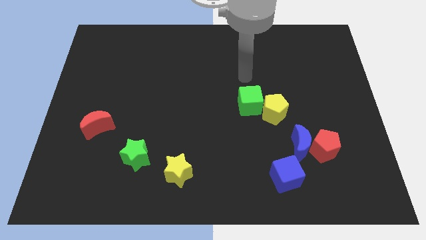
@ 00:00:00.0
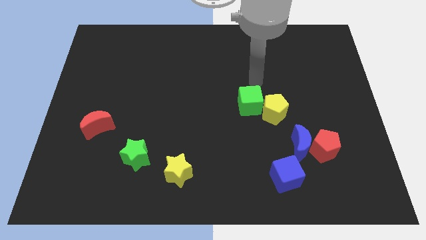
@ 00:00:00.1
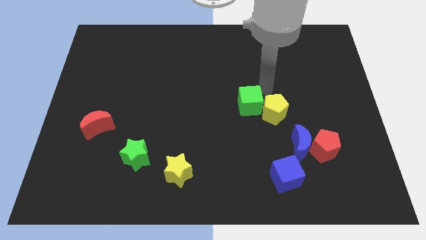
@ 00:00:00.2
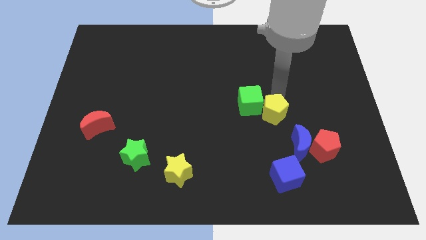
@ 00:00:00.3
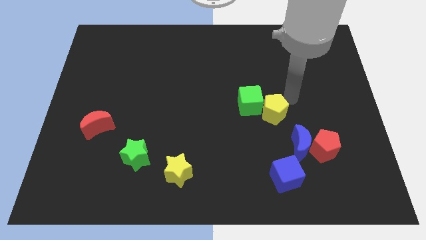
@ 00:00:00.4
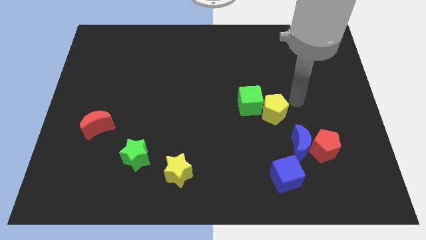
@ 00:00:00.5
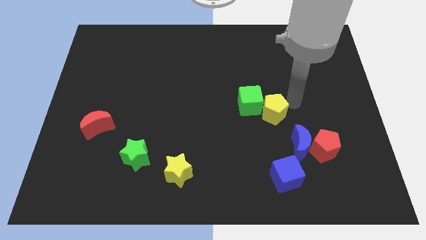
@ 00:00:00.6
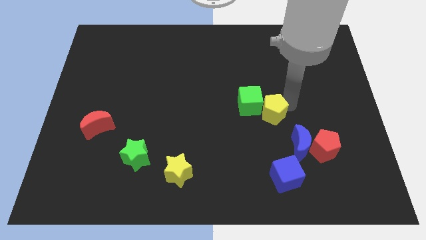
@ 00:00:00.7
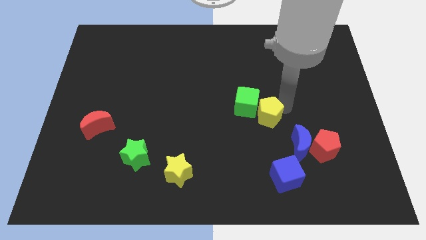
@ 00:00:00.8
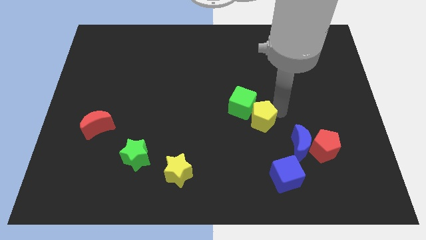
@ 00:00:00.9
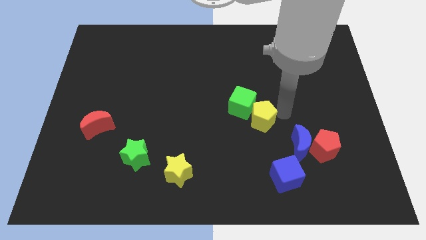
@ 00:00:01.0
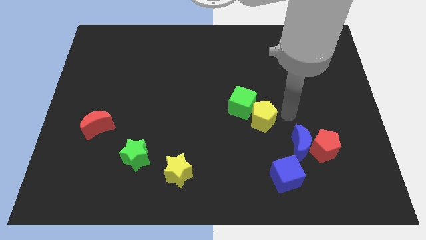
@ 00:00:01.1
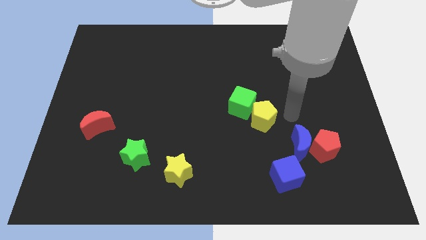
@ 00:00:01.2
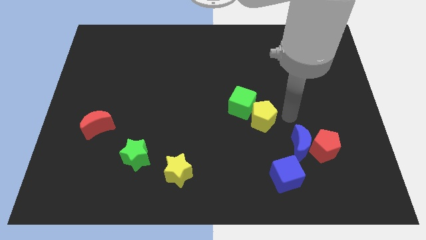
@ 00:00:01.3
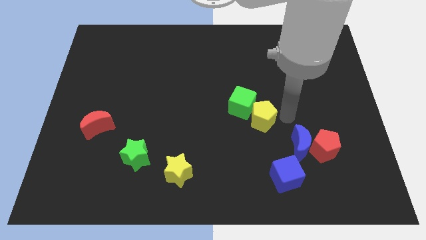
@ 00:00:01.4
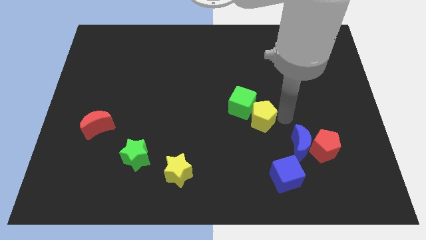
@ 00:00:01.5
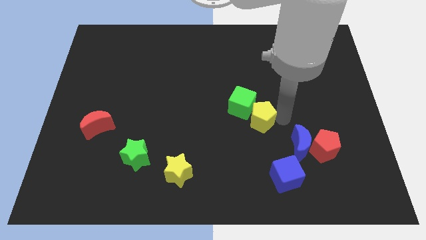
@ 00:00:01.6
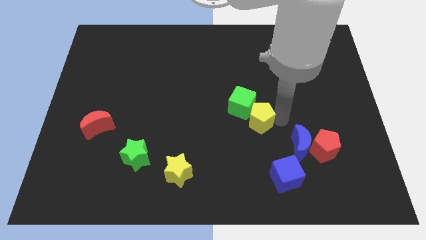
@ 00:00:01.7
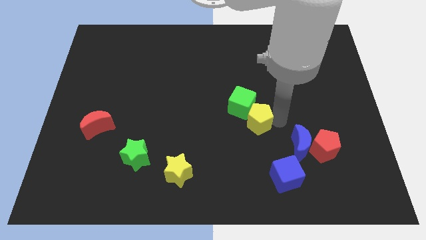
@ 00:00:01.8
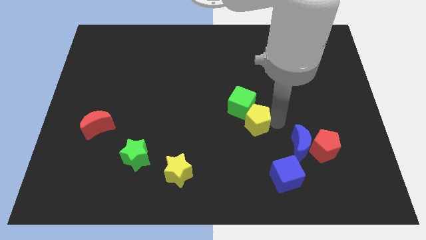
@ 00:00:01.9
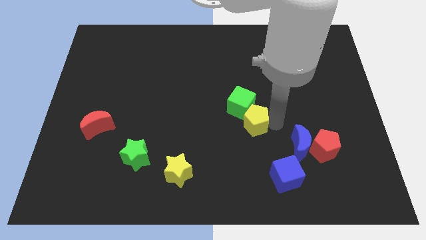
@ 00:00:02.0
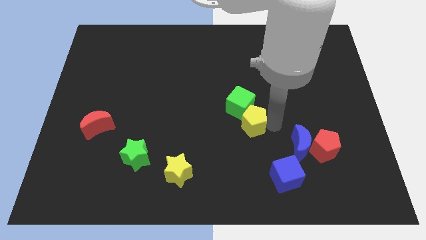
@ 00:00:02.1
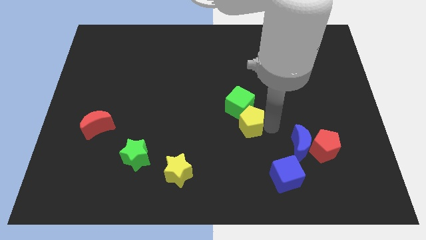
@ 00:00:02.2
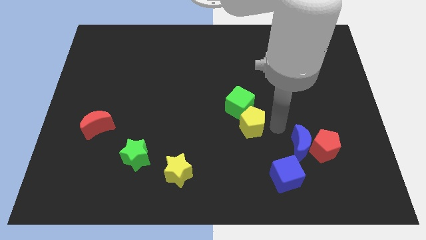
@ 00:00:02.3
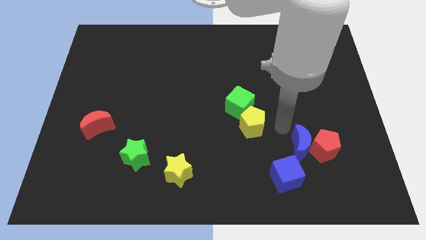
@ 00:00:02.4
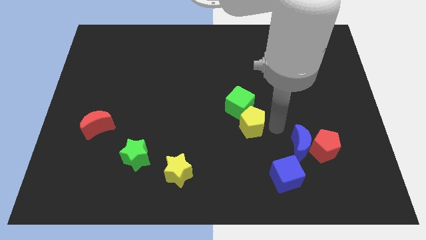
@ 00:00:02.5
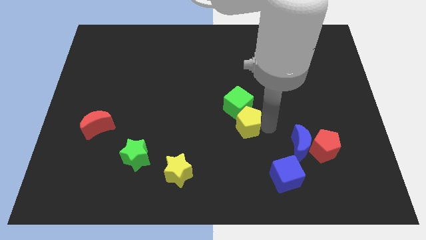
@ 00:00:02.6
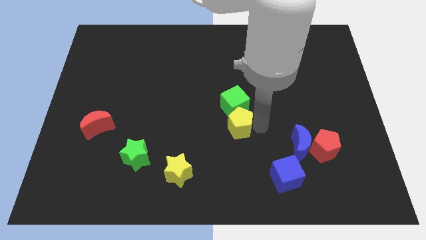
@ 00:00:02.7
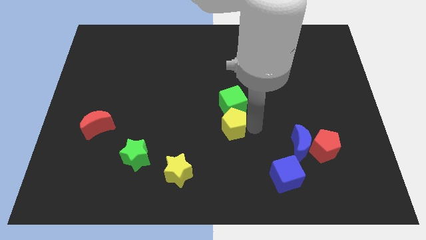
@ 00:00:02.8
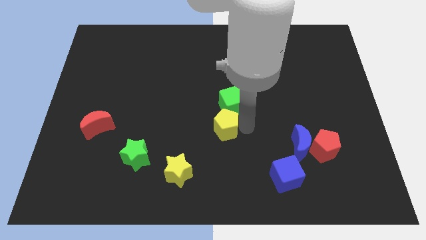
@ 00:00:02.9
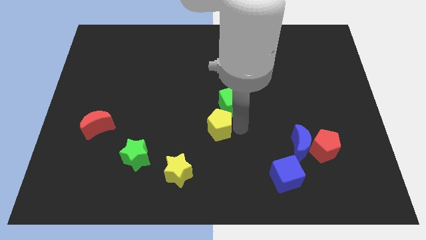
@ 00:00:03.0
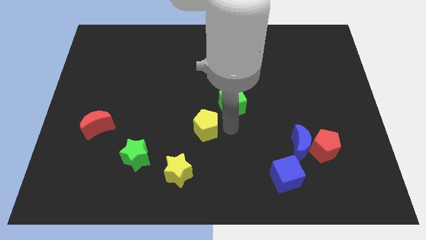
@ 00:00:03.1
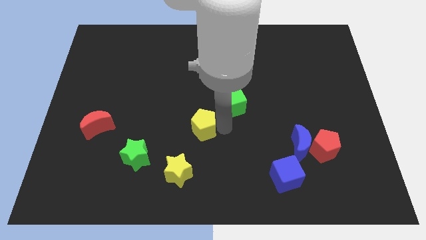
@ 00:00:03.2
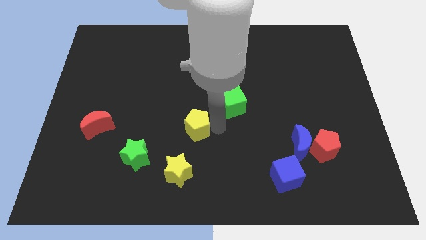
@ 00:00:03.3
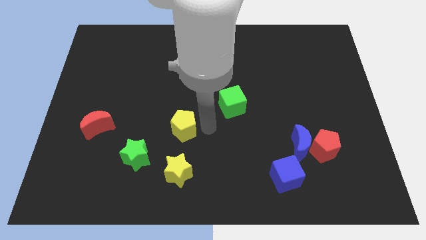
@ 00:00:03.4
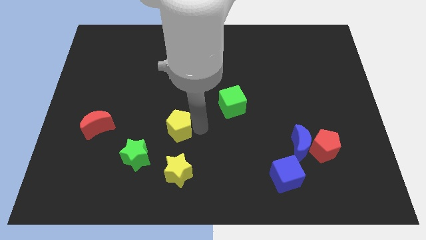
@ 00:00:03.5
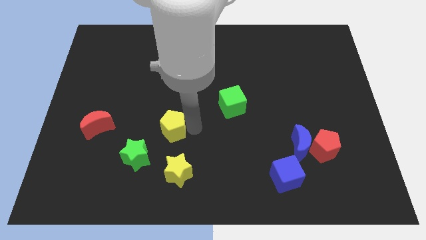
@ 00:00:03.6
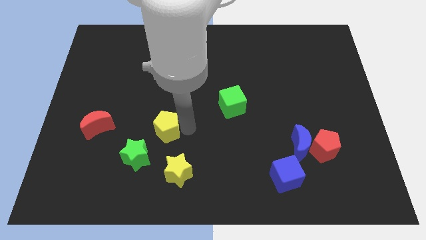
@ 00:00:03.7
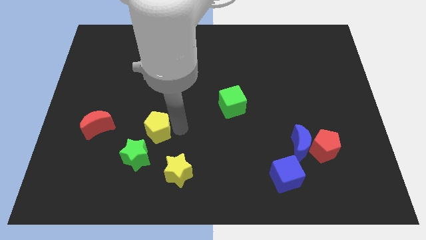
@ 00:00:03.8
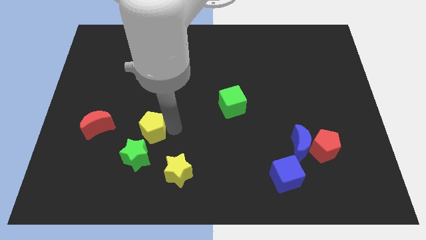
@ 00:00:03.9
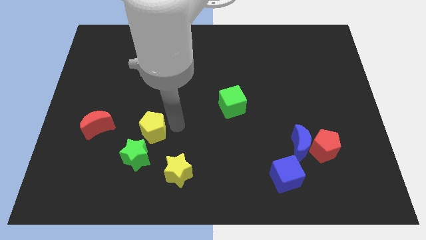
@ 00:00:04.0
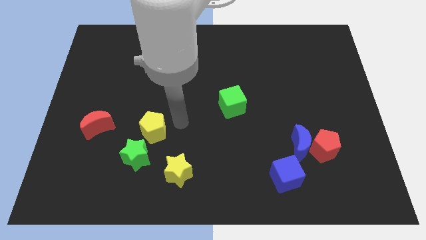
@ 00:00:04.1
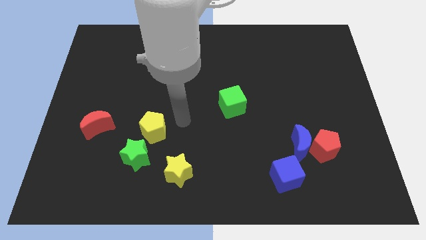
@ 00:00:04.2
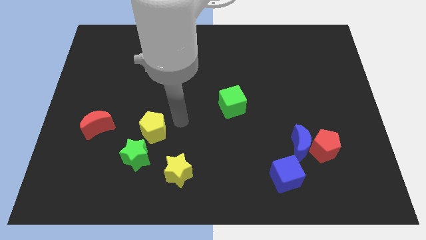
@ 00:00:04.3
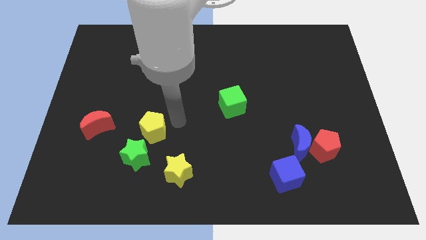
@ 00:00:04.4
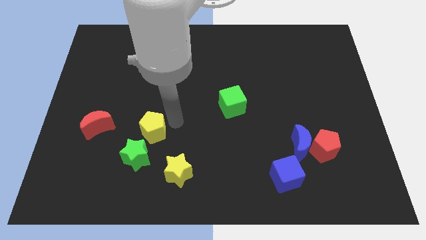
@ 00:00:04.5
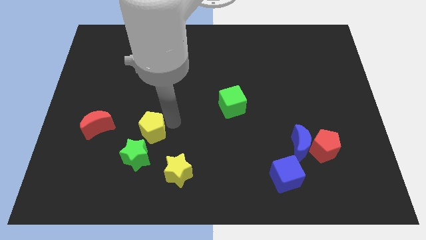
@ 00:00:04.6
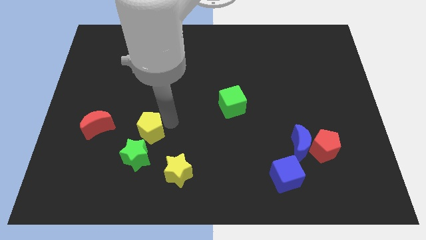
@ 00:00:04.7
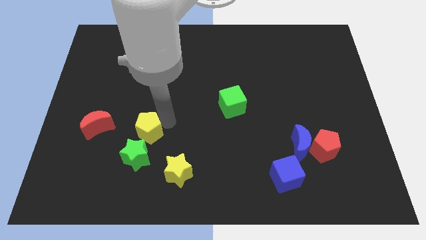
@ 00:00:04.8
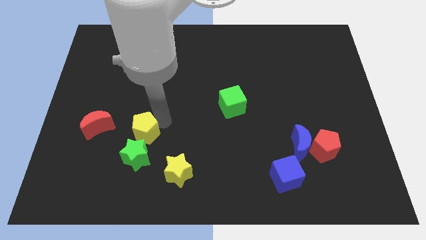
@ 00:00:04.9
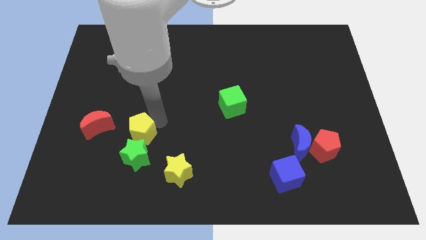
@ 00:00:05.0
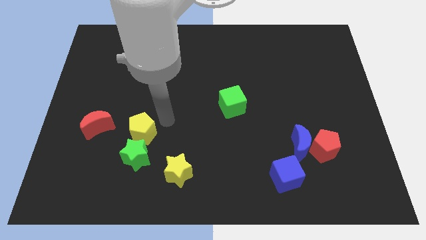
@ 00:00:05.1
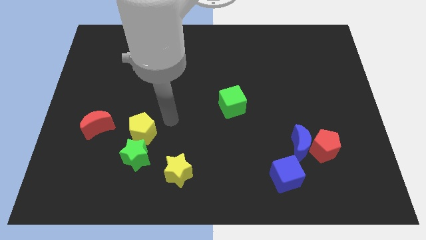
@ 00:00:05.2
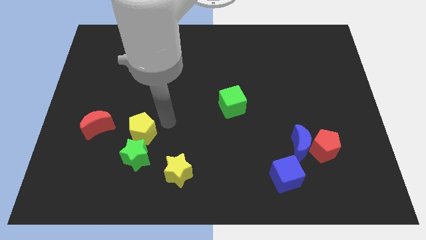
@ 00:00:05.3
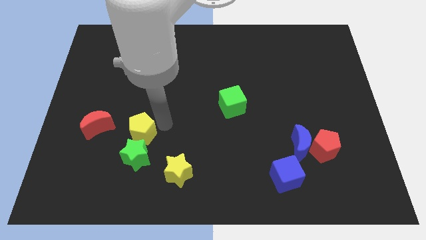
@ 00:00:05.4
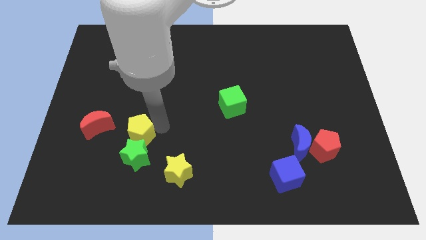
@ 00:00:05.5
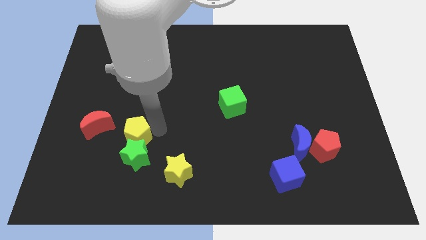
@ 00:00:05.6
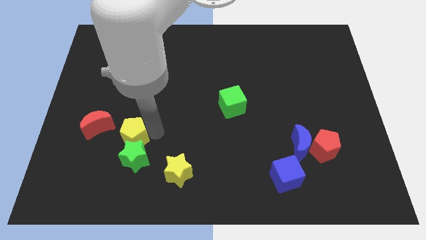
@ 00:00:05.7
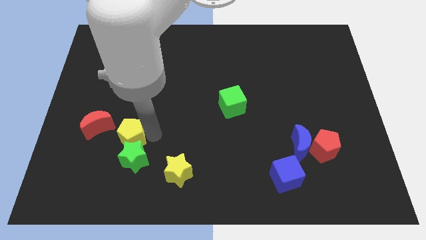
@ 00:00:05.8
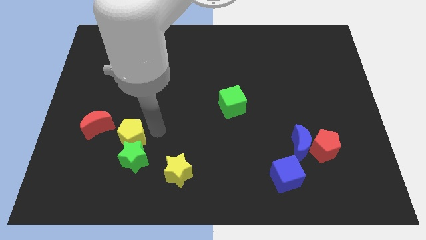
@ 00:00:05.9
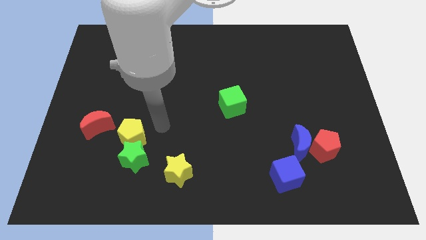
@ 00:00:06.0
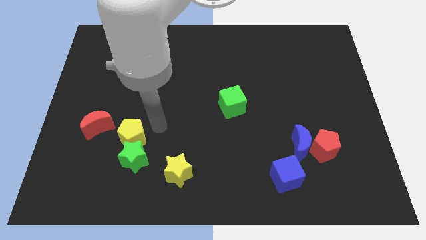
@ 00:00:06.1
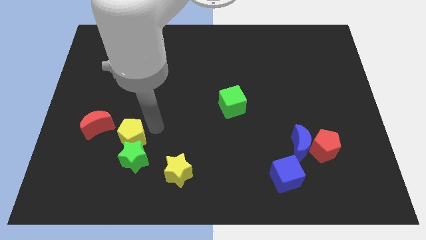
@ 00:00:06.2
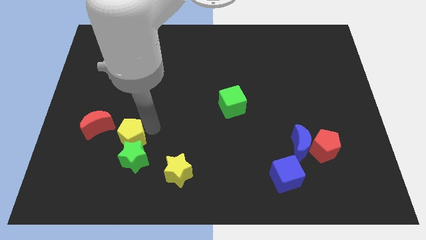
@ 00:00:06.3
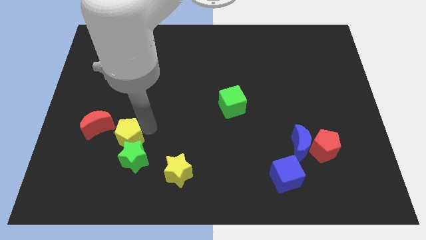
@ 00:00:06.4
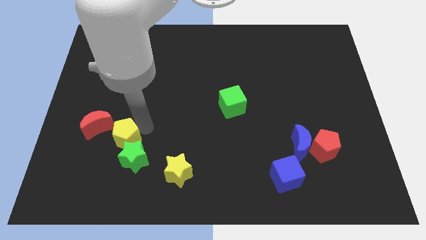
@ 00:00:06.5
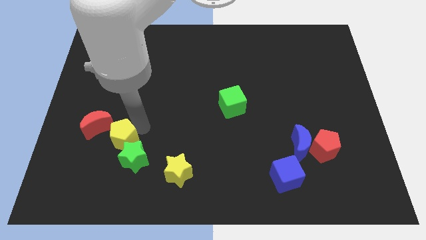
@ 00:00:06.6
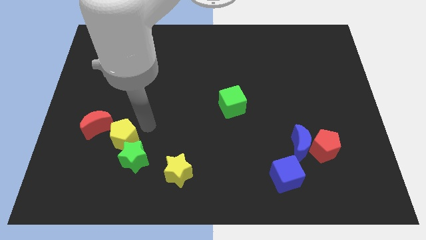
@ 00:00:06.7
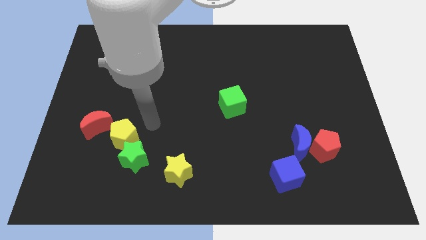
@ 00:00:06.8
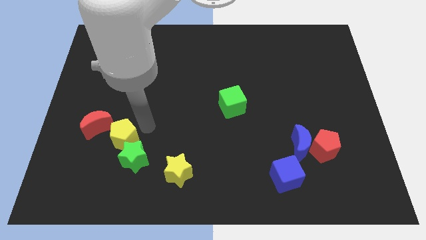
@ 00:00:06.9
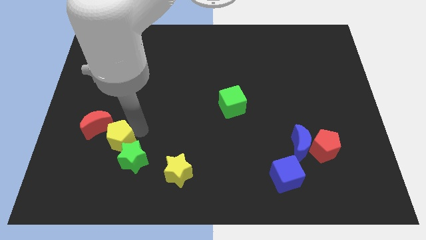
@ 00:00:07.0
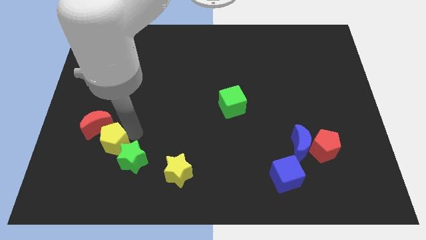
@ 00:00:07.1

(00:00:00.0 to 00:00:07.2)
slide the yellow pentagon left of the green star
